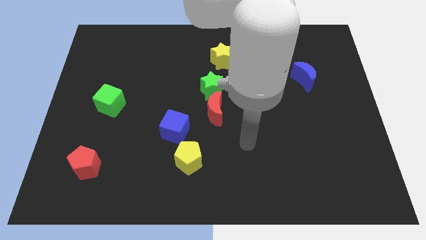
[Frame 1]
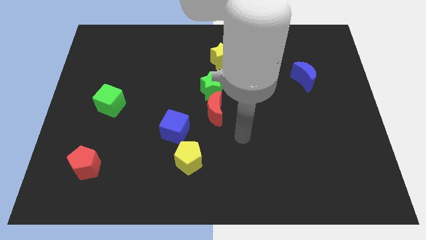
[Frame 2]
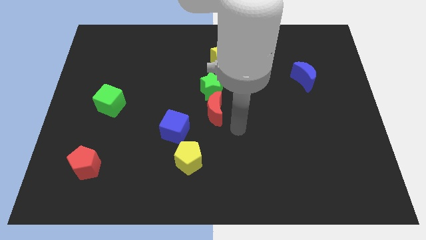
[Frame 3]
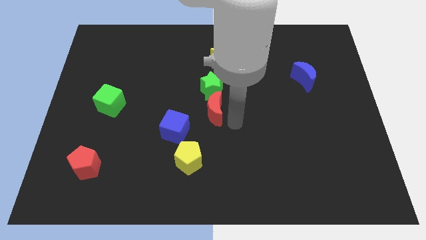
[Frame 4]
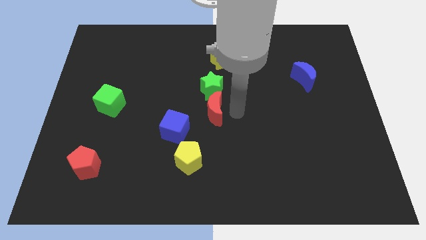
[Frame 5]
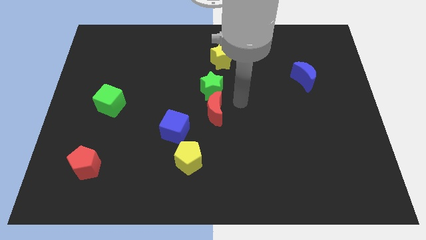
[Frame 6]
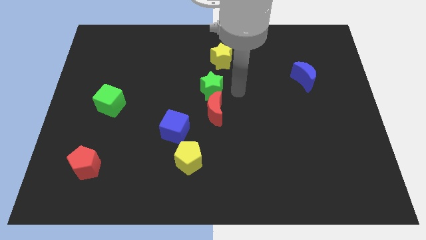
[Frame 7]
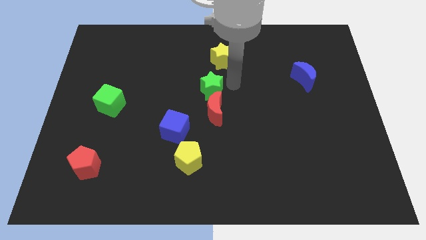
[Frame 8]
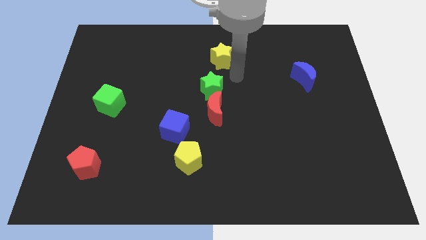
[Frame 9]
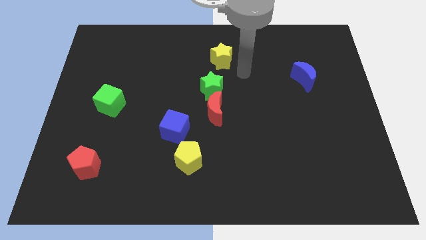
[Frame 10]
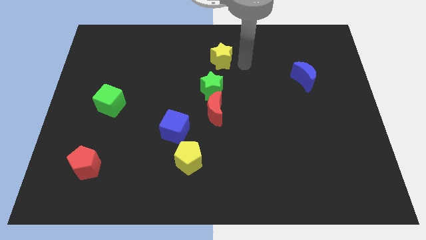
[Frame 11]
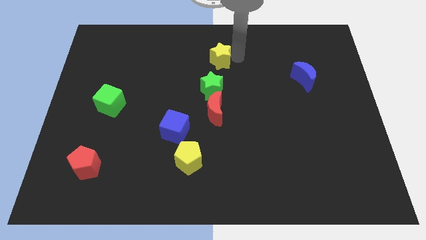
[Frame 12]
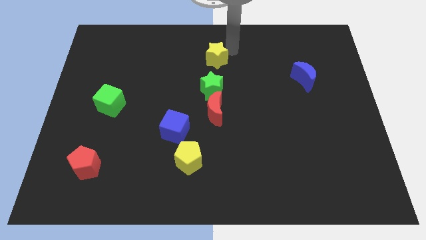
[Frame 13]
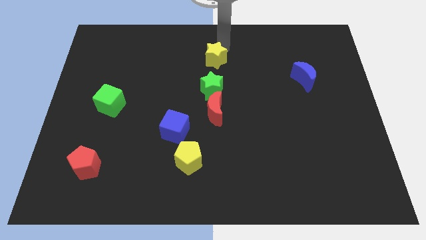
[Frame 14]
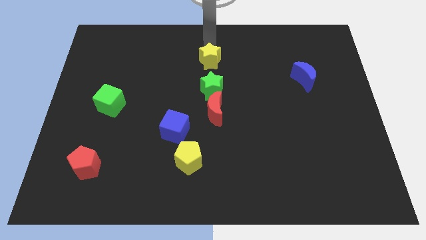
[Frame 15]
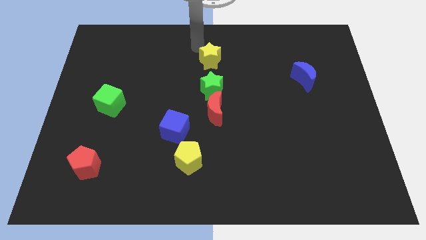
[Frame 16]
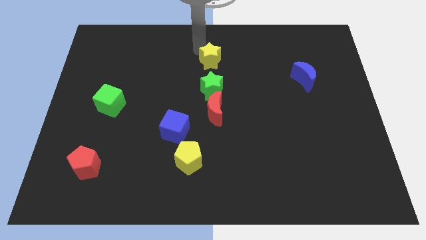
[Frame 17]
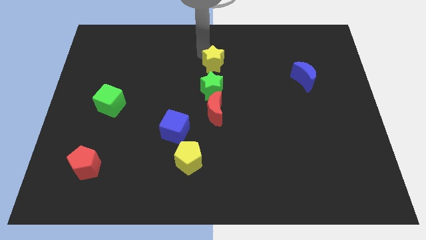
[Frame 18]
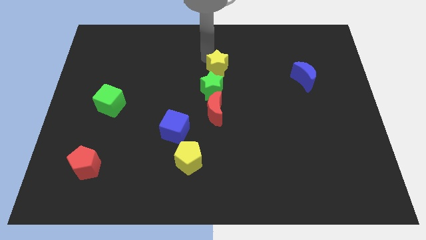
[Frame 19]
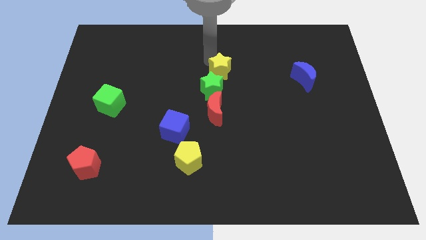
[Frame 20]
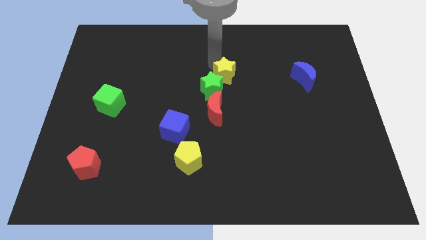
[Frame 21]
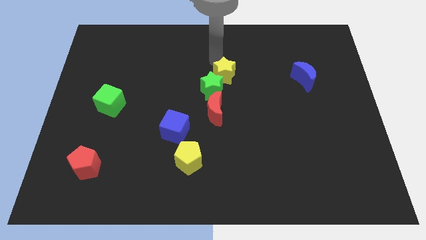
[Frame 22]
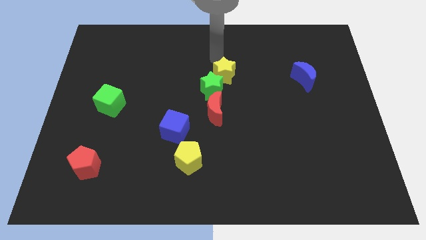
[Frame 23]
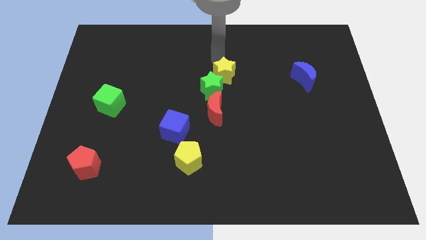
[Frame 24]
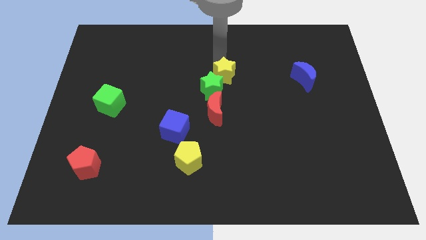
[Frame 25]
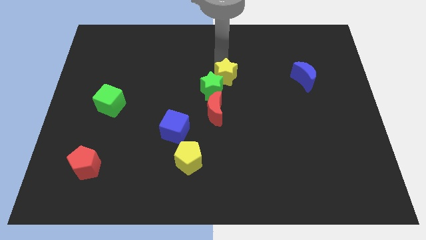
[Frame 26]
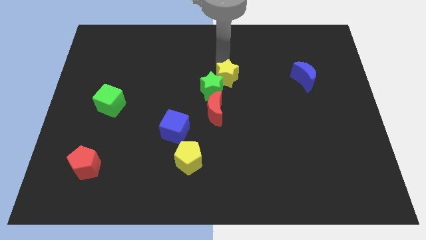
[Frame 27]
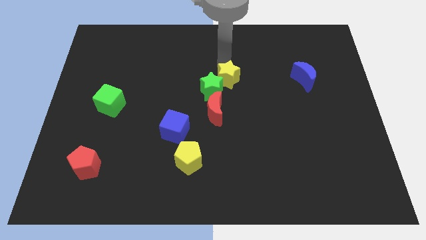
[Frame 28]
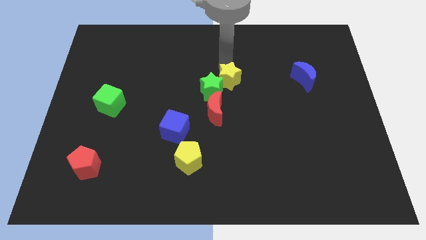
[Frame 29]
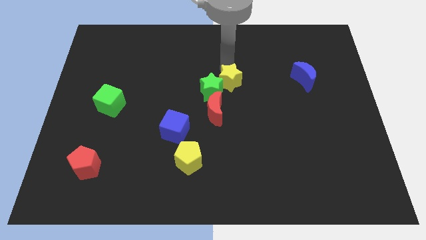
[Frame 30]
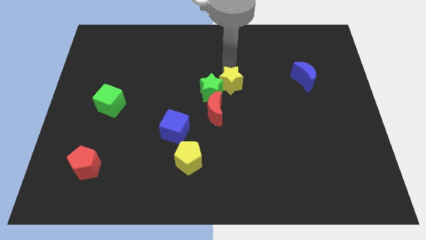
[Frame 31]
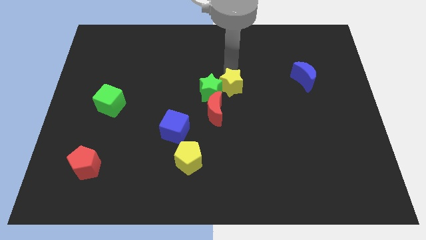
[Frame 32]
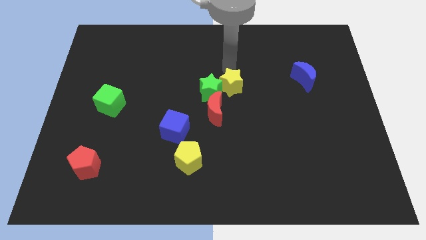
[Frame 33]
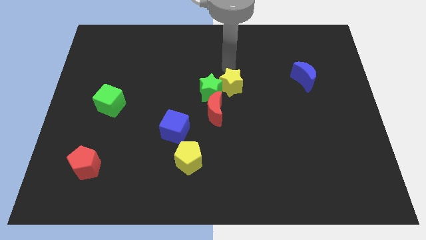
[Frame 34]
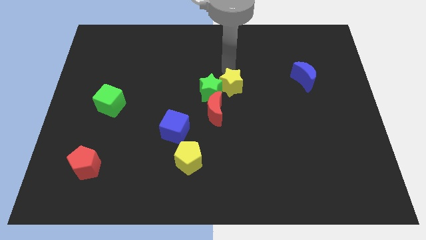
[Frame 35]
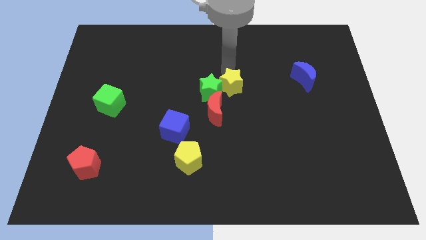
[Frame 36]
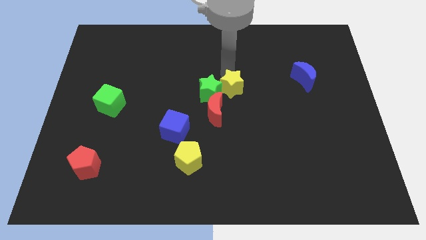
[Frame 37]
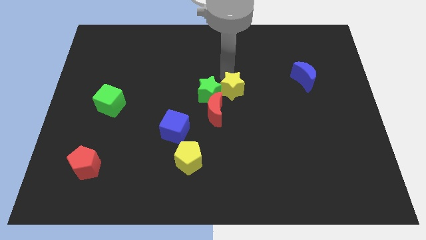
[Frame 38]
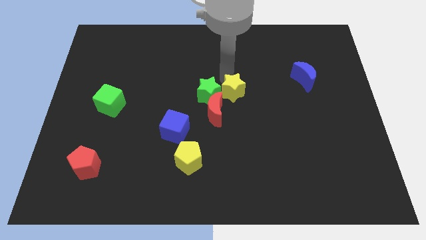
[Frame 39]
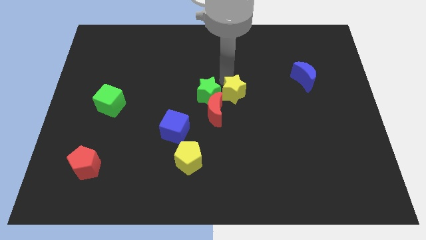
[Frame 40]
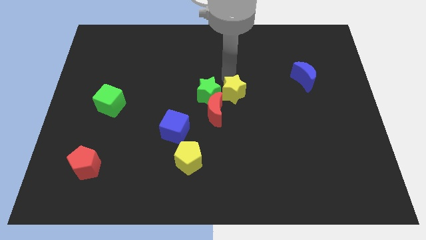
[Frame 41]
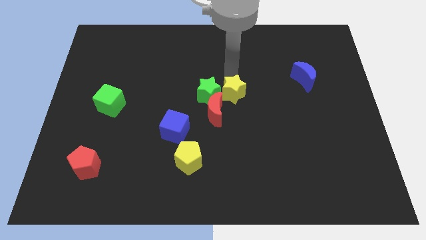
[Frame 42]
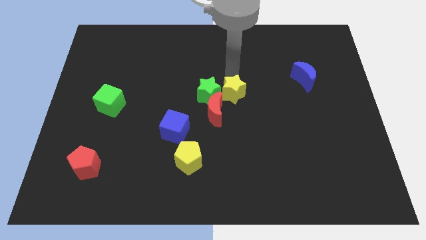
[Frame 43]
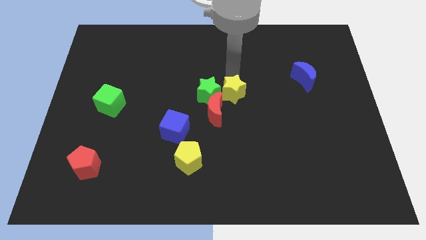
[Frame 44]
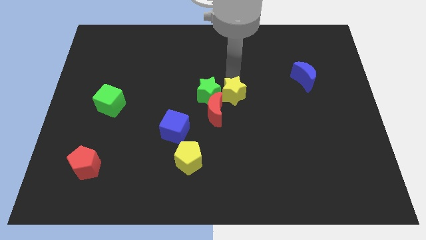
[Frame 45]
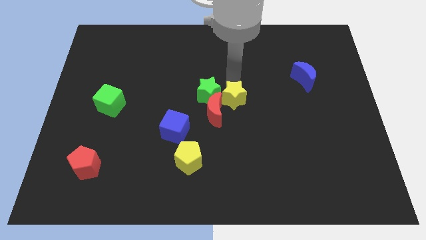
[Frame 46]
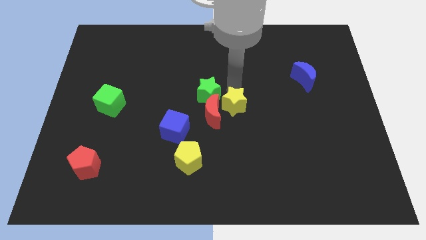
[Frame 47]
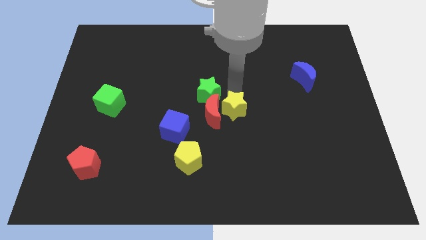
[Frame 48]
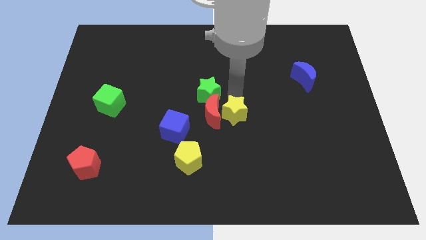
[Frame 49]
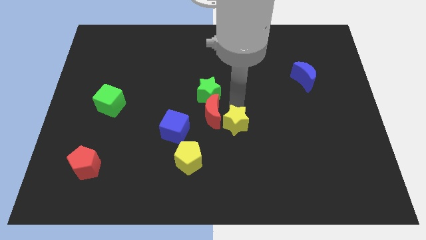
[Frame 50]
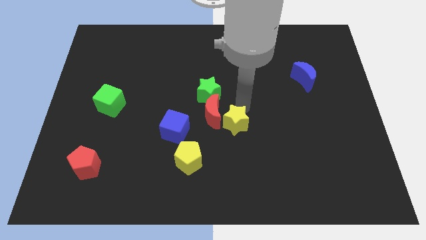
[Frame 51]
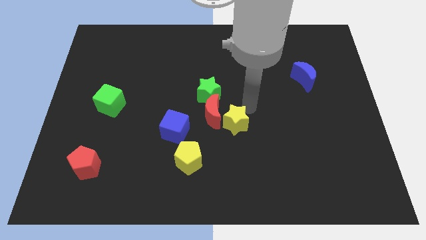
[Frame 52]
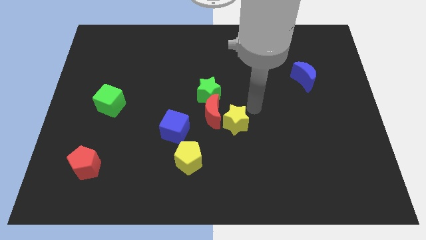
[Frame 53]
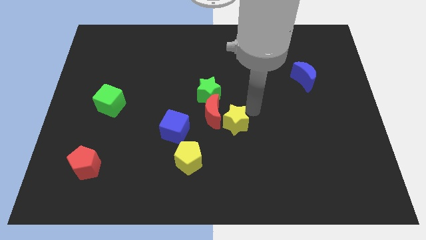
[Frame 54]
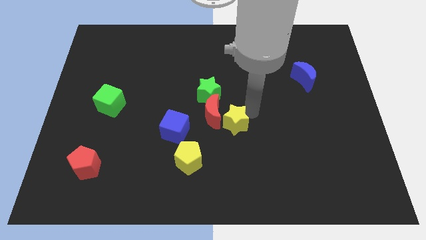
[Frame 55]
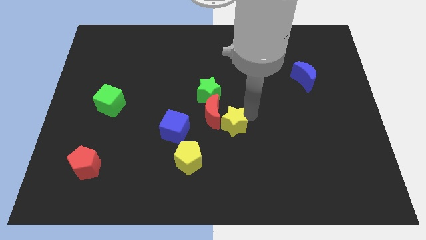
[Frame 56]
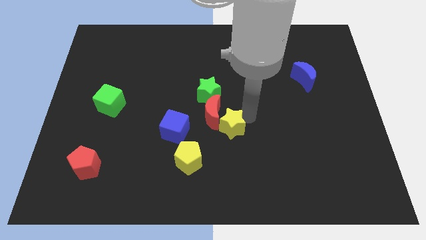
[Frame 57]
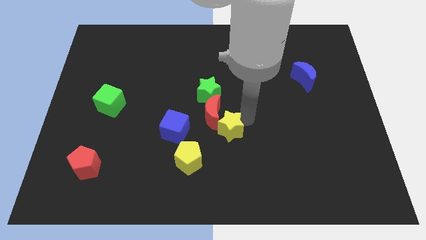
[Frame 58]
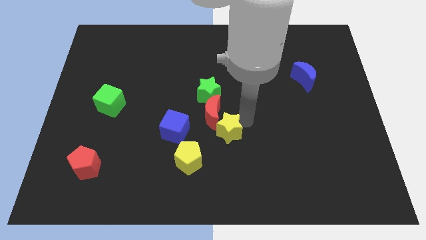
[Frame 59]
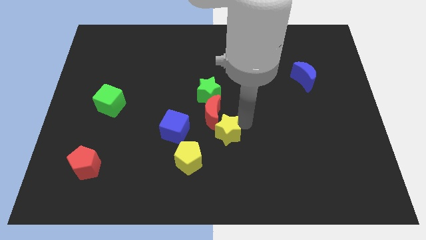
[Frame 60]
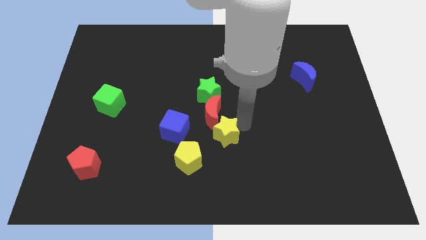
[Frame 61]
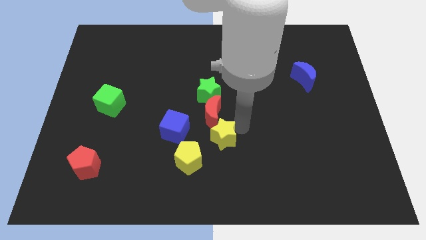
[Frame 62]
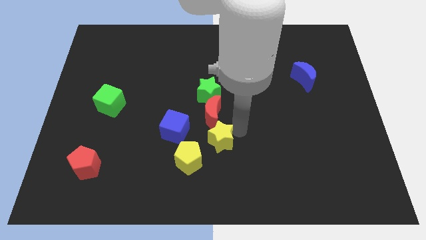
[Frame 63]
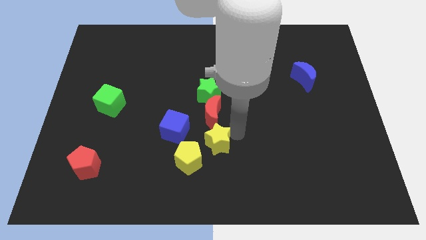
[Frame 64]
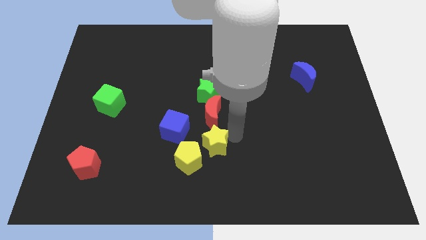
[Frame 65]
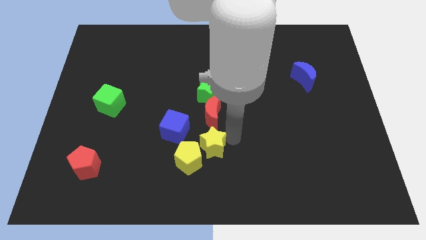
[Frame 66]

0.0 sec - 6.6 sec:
slide the yellow star close to the yellow pentagon

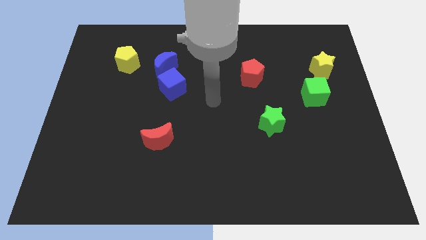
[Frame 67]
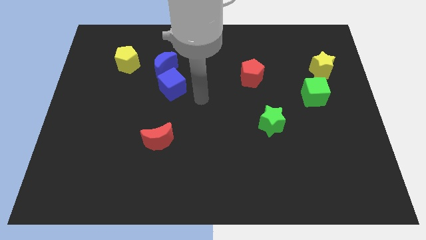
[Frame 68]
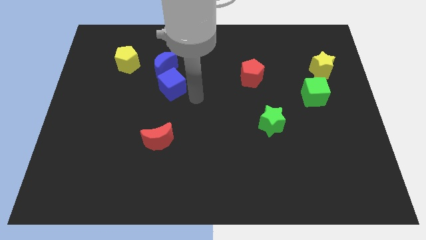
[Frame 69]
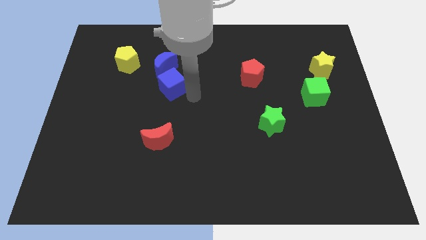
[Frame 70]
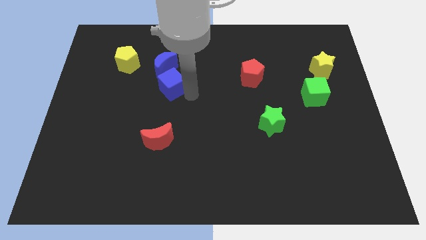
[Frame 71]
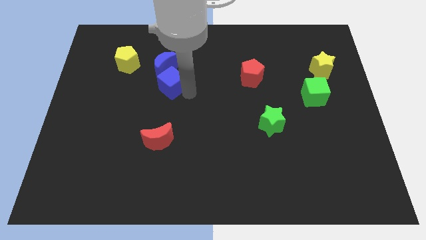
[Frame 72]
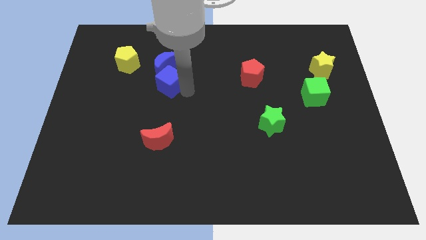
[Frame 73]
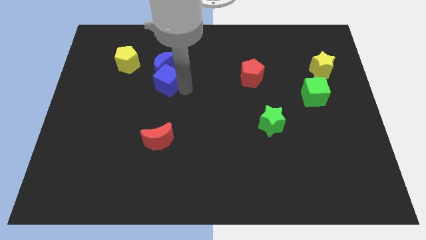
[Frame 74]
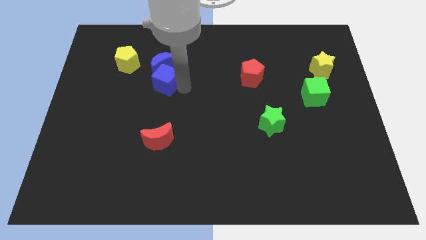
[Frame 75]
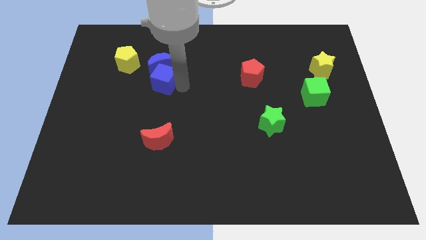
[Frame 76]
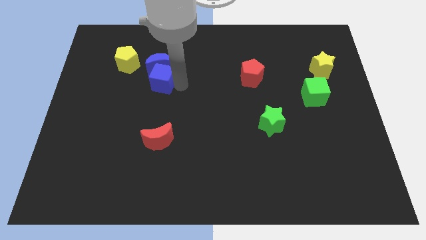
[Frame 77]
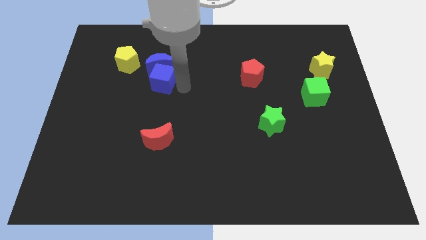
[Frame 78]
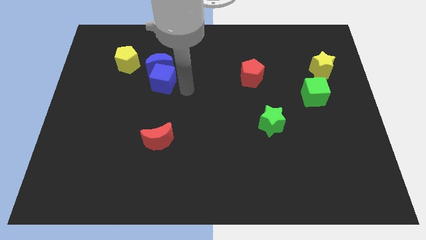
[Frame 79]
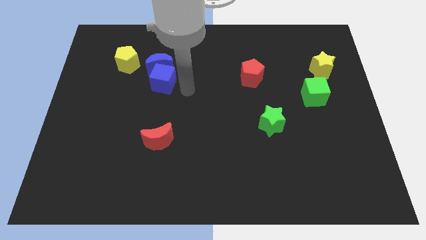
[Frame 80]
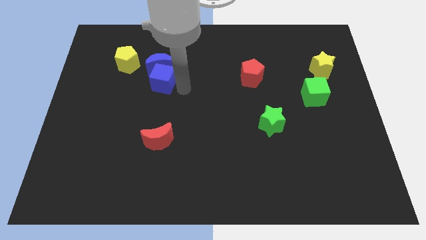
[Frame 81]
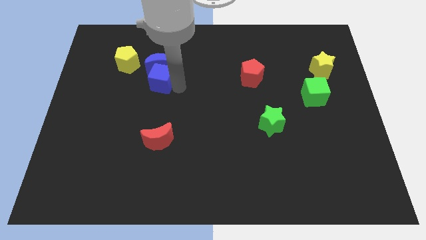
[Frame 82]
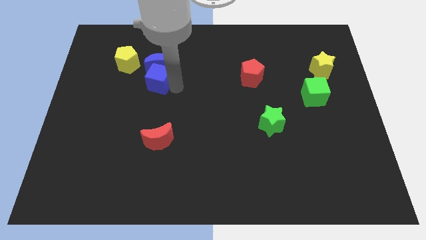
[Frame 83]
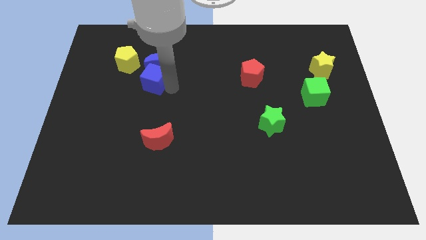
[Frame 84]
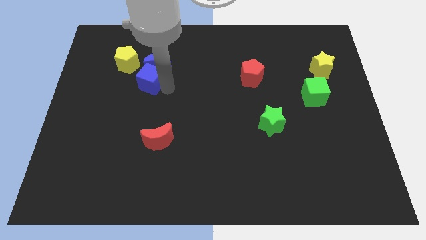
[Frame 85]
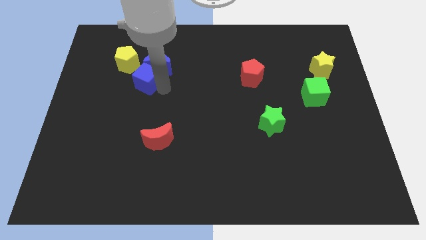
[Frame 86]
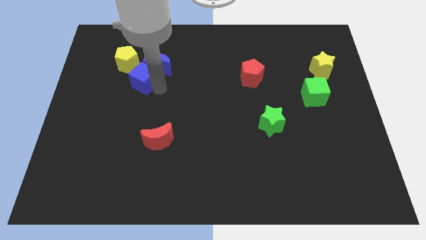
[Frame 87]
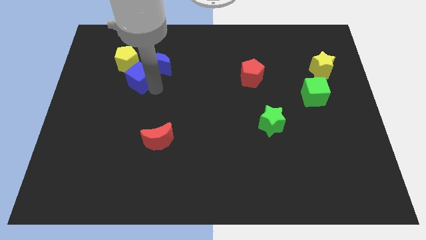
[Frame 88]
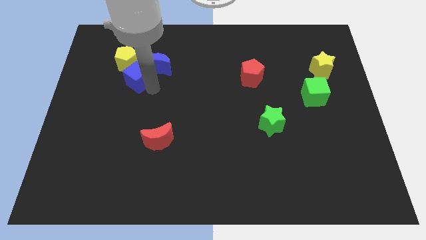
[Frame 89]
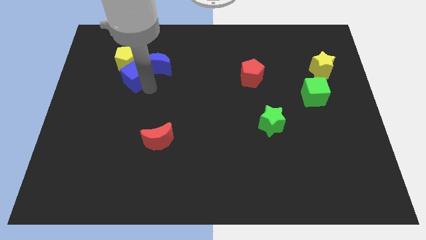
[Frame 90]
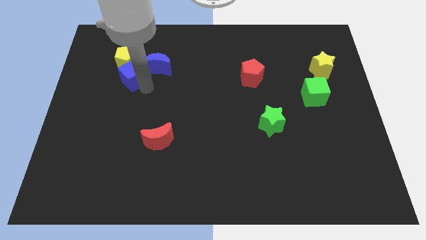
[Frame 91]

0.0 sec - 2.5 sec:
put the blue cube next to the yellow pentagon
